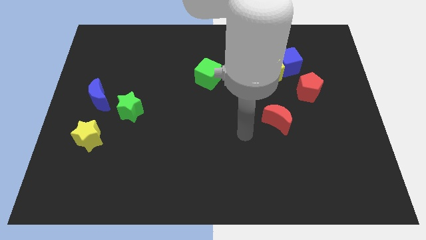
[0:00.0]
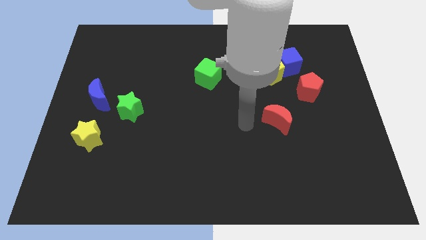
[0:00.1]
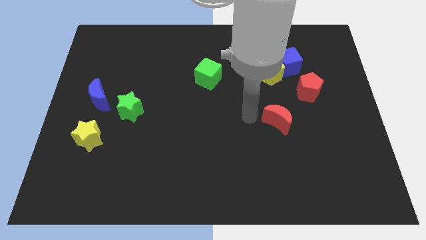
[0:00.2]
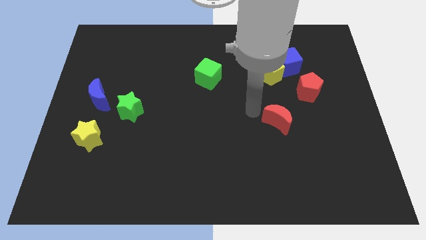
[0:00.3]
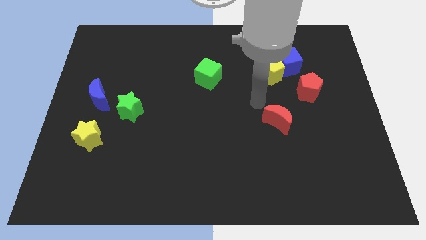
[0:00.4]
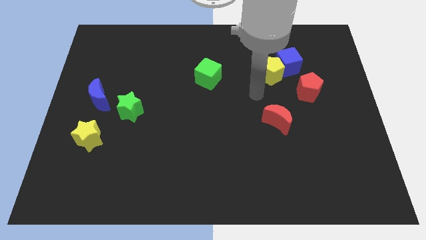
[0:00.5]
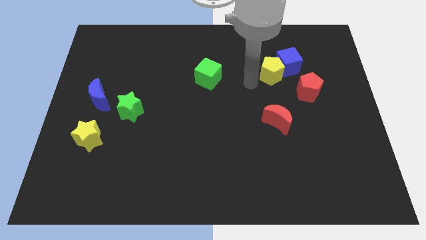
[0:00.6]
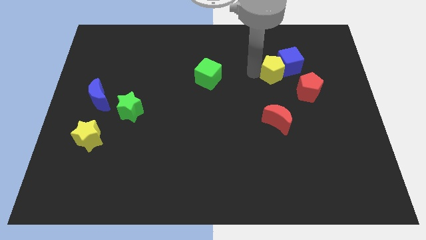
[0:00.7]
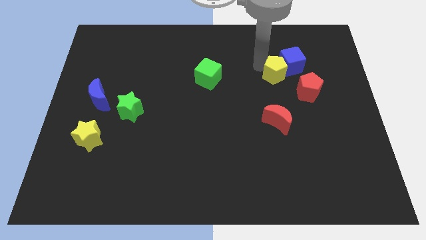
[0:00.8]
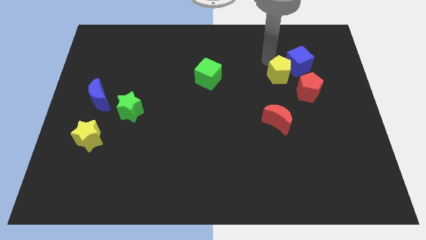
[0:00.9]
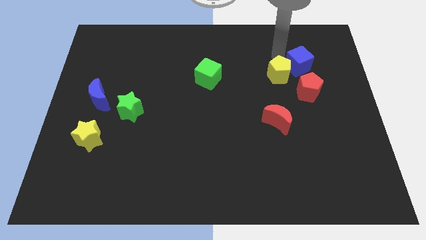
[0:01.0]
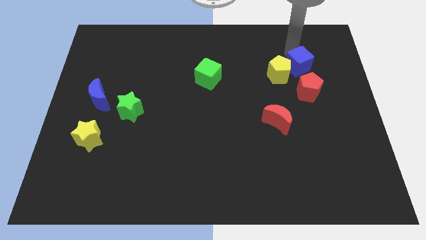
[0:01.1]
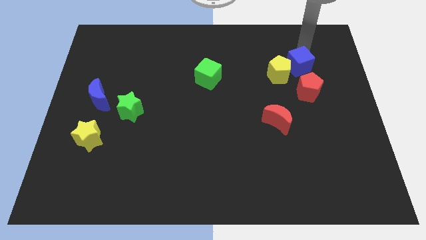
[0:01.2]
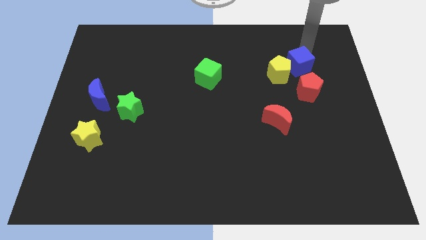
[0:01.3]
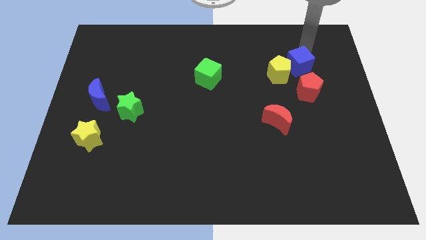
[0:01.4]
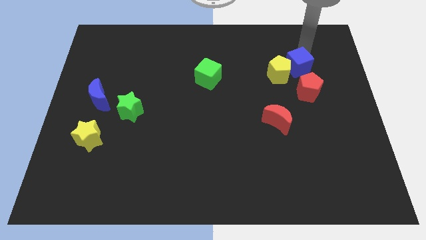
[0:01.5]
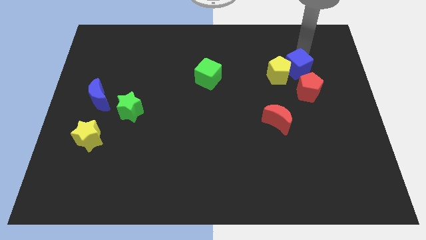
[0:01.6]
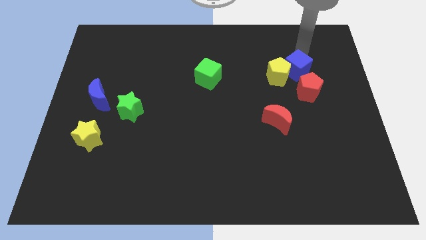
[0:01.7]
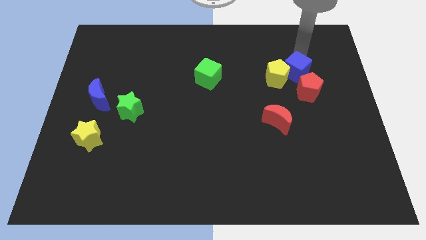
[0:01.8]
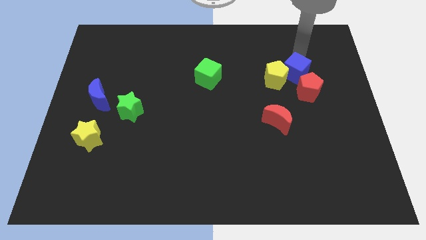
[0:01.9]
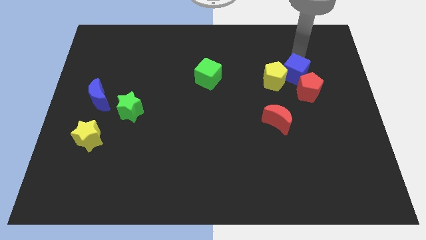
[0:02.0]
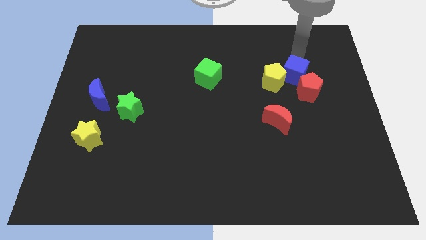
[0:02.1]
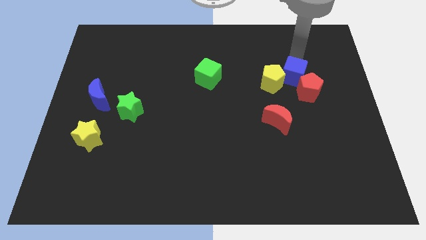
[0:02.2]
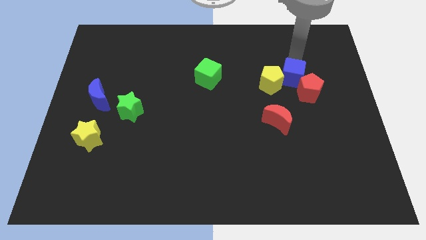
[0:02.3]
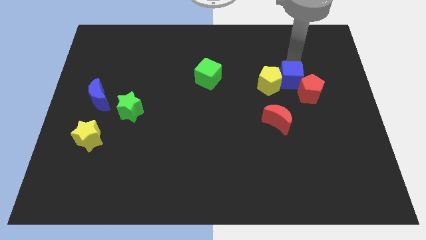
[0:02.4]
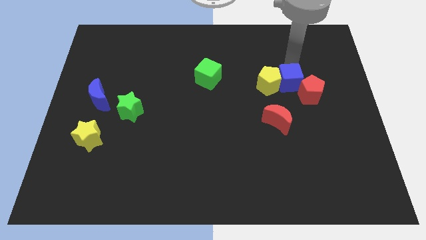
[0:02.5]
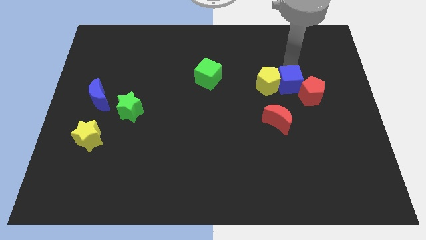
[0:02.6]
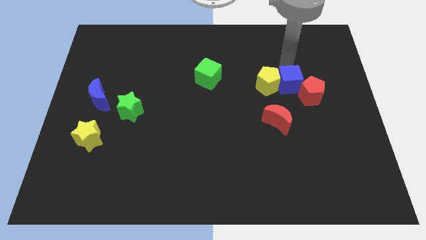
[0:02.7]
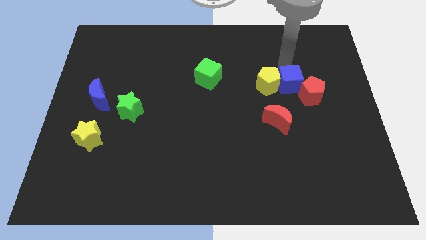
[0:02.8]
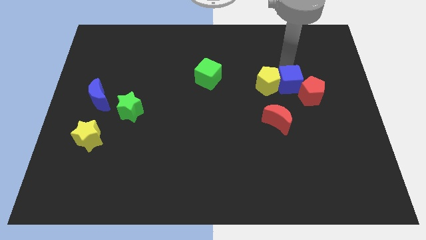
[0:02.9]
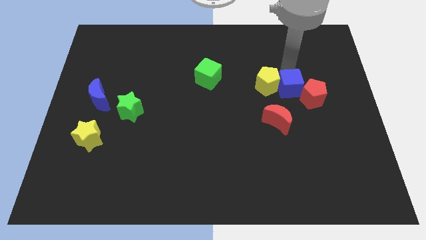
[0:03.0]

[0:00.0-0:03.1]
push the blue cube somewhat downwards

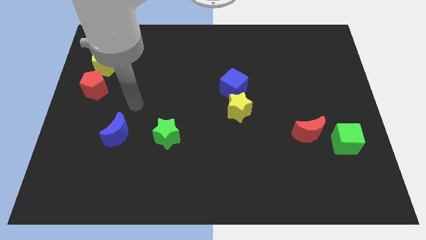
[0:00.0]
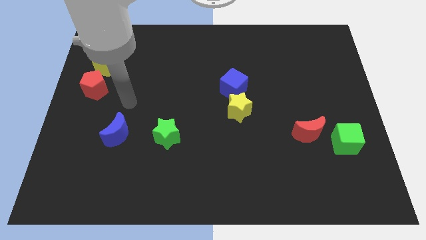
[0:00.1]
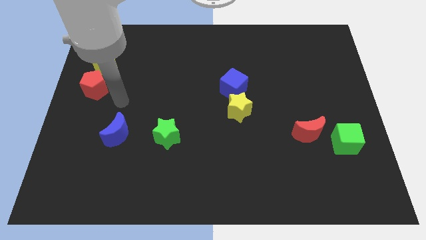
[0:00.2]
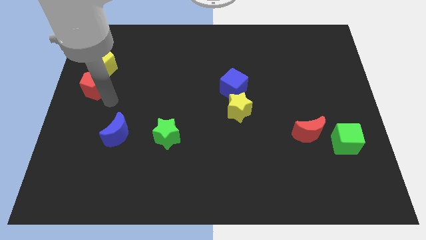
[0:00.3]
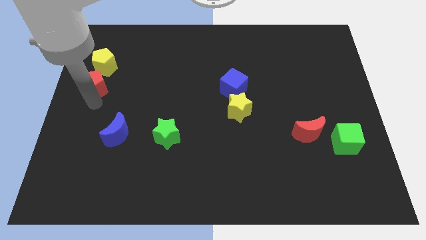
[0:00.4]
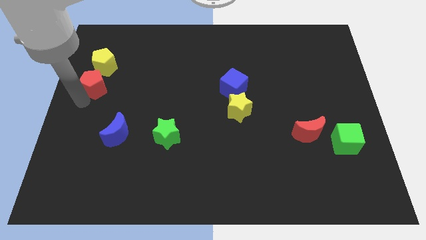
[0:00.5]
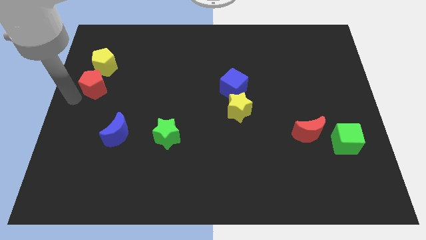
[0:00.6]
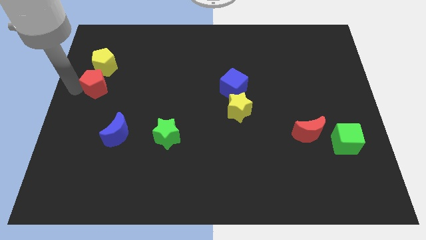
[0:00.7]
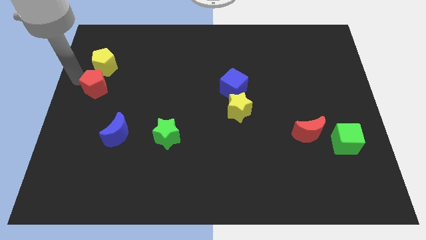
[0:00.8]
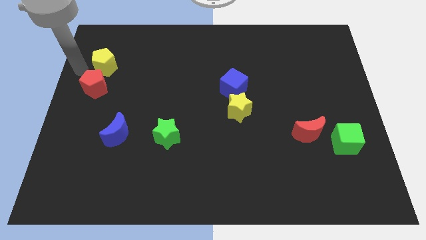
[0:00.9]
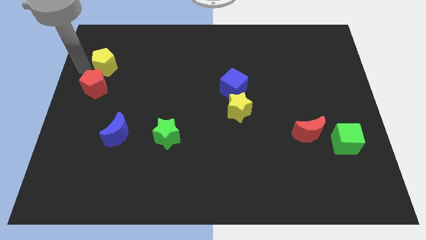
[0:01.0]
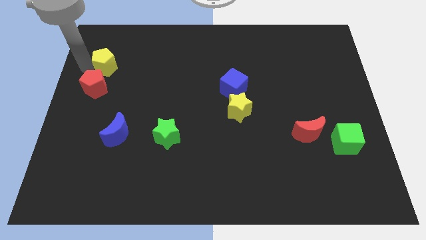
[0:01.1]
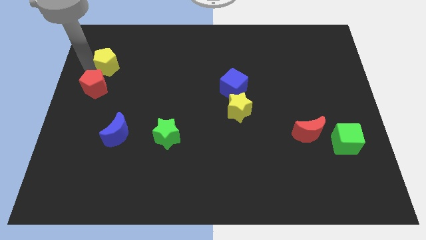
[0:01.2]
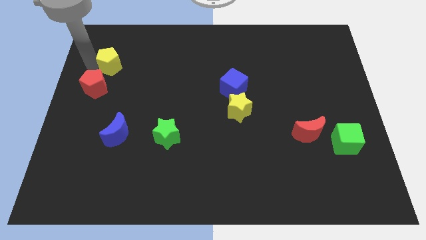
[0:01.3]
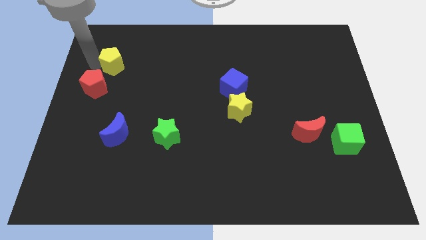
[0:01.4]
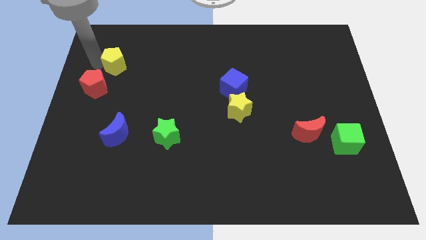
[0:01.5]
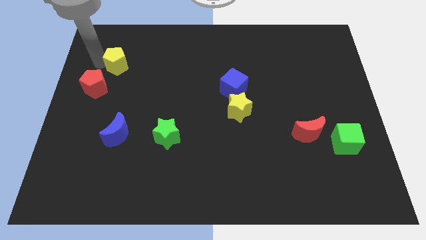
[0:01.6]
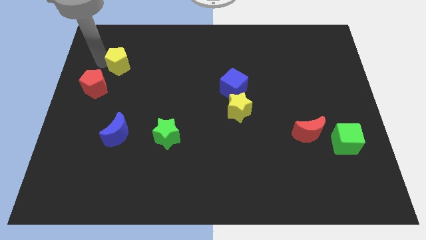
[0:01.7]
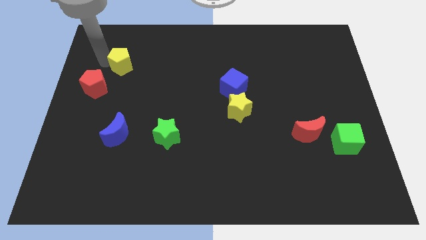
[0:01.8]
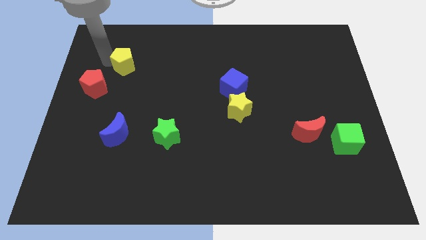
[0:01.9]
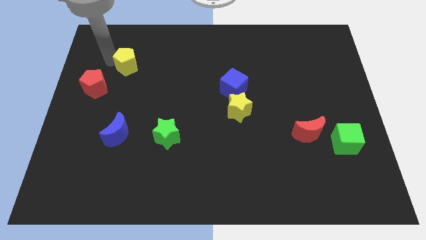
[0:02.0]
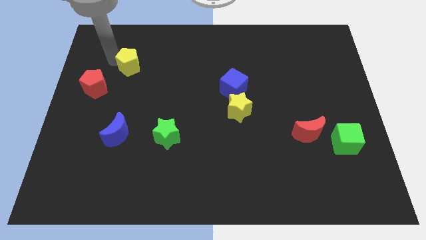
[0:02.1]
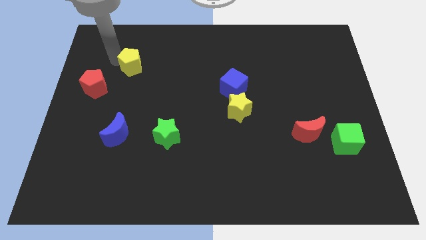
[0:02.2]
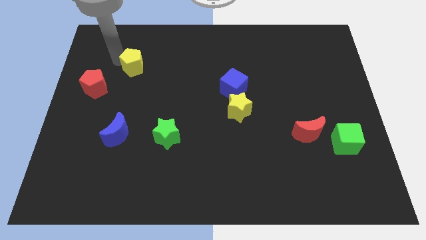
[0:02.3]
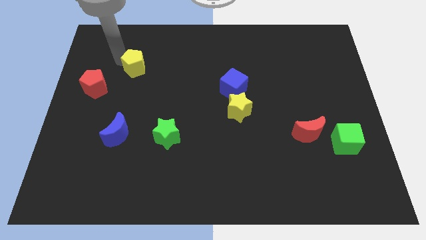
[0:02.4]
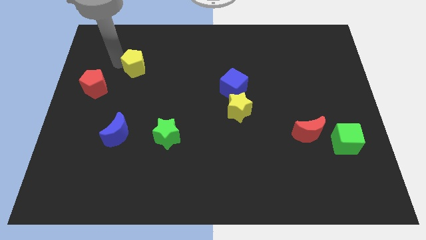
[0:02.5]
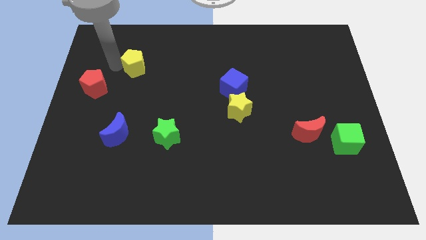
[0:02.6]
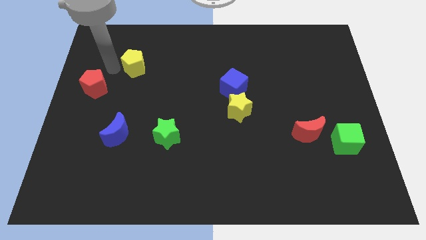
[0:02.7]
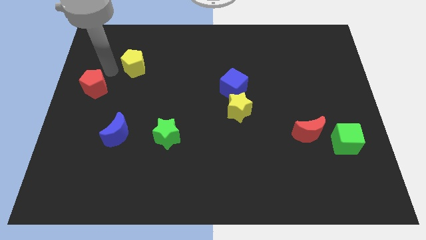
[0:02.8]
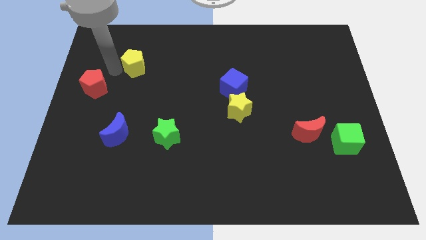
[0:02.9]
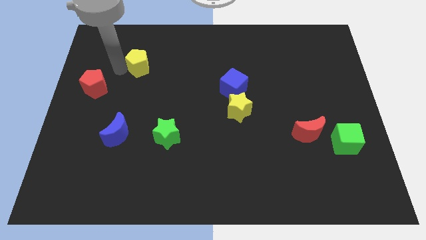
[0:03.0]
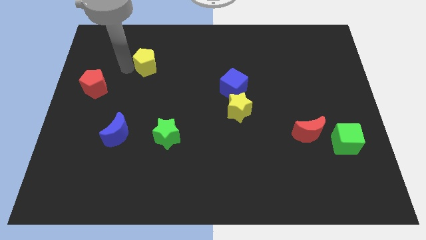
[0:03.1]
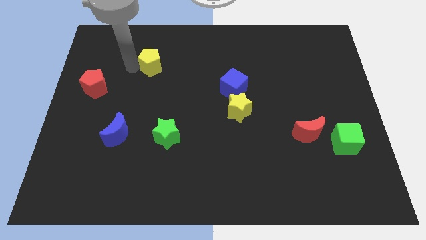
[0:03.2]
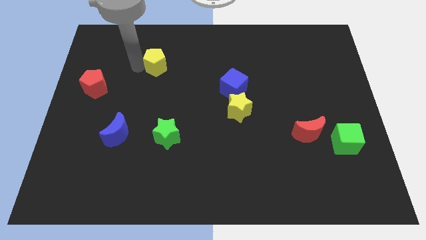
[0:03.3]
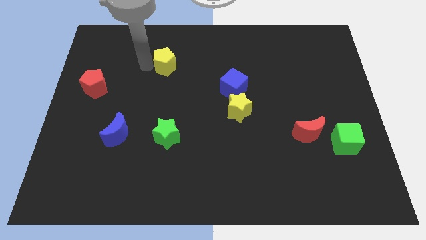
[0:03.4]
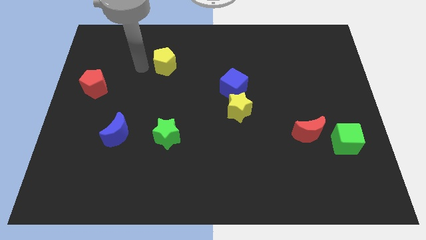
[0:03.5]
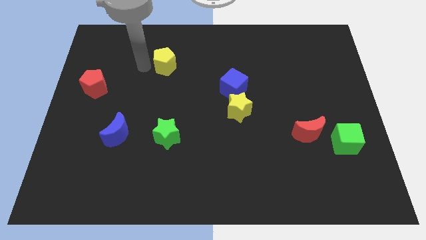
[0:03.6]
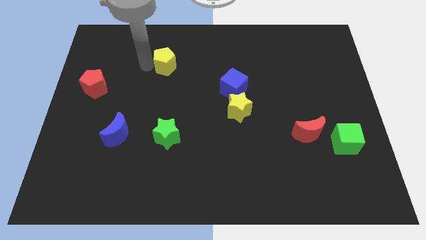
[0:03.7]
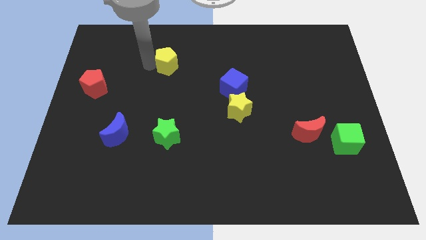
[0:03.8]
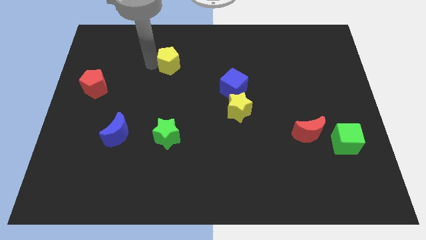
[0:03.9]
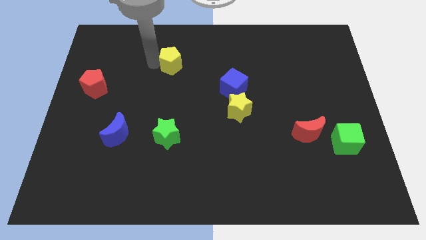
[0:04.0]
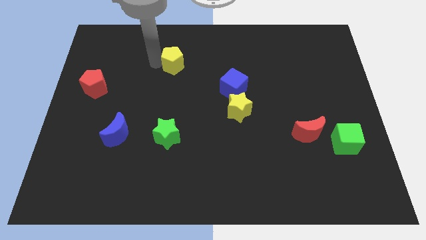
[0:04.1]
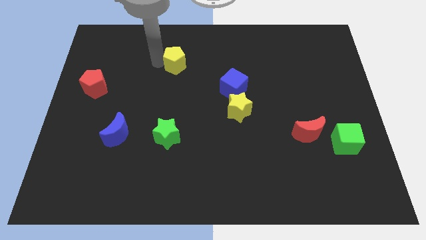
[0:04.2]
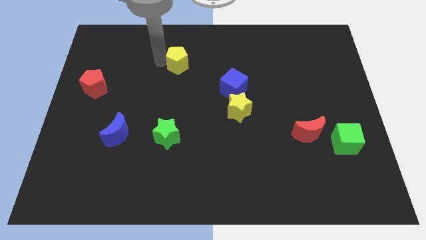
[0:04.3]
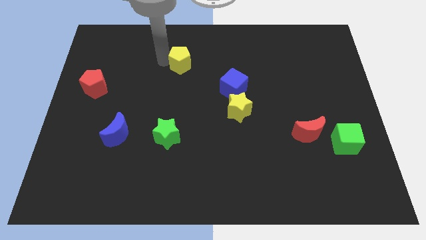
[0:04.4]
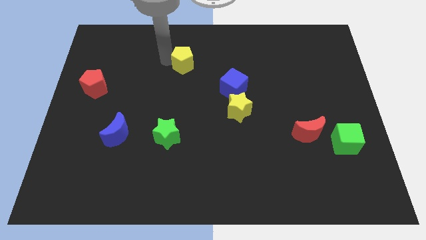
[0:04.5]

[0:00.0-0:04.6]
slide the yellow pentagon right

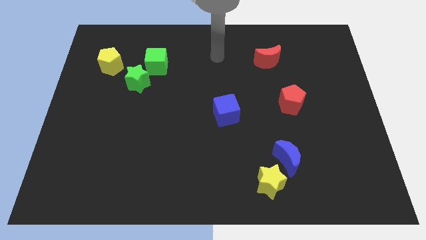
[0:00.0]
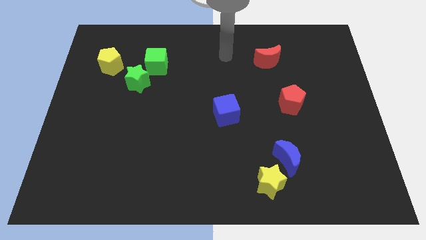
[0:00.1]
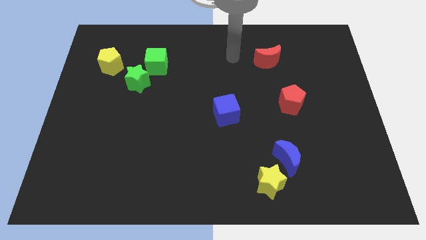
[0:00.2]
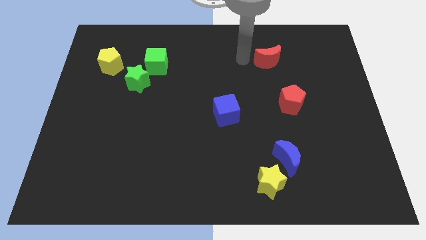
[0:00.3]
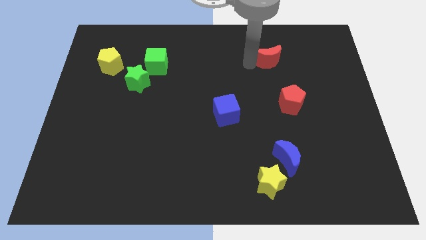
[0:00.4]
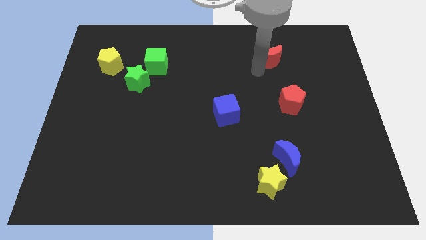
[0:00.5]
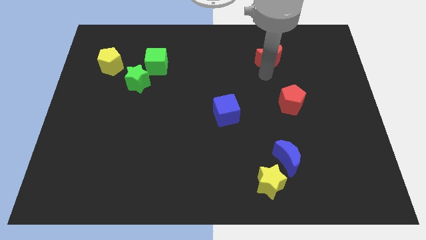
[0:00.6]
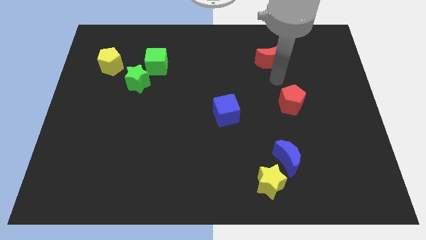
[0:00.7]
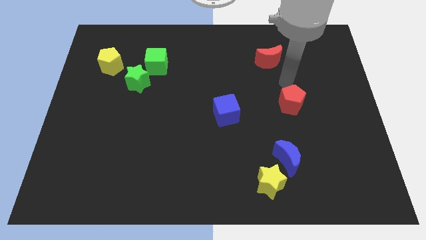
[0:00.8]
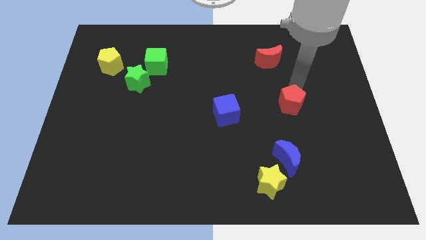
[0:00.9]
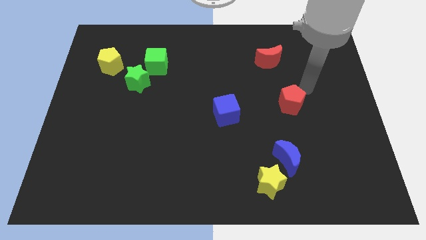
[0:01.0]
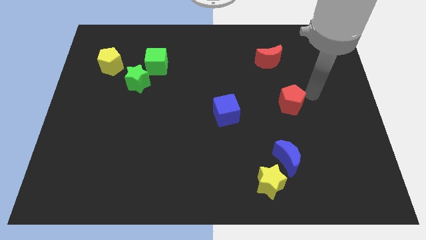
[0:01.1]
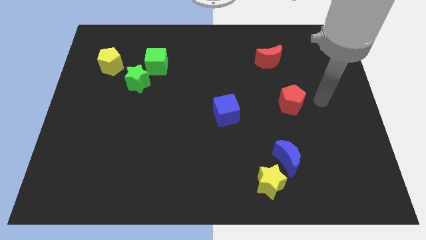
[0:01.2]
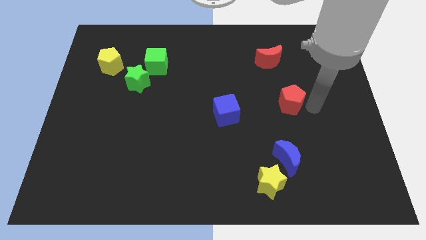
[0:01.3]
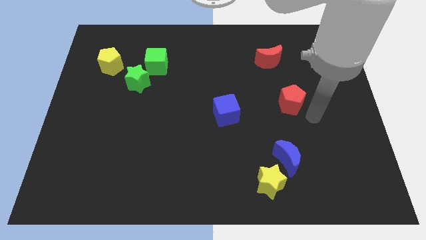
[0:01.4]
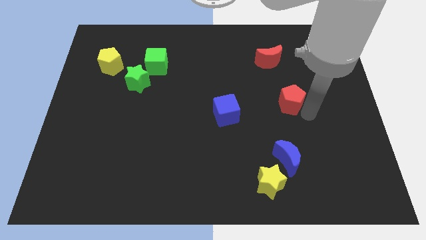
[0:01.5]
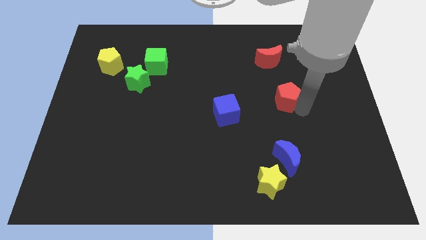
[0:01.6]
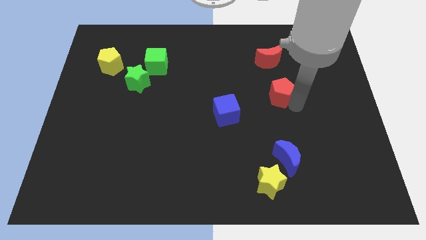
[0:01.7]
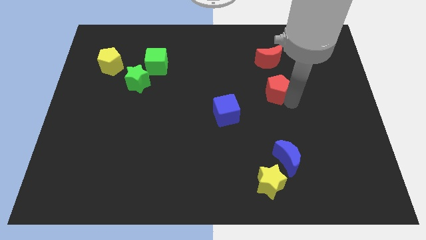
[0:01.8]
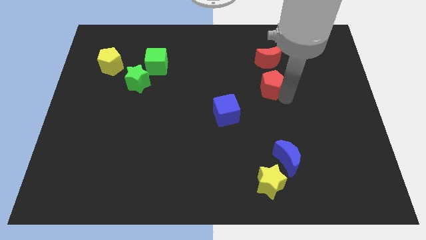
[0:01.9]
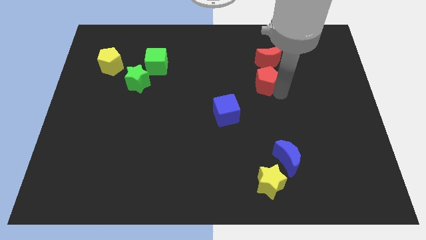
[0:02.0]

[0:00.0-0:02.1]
push the red pentagon a little diagonally up and to the left
